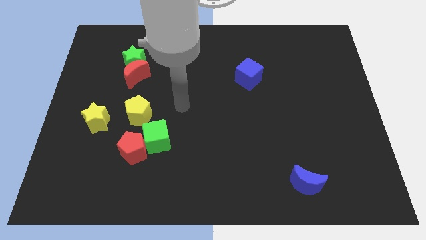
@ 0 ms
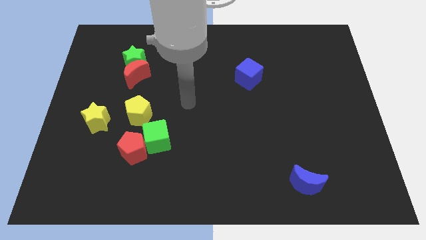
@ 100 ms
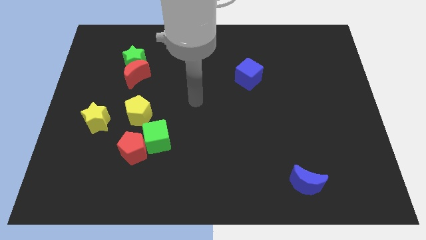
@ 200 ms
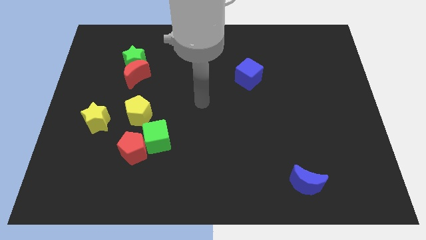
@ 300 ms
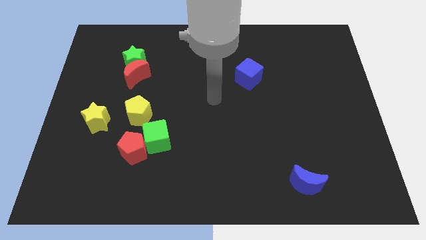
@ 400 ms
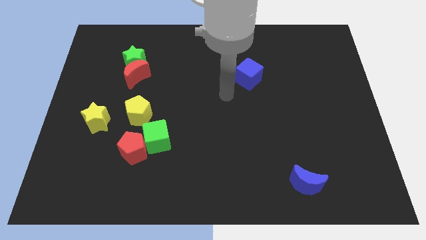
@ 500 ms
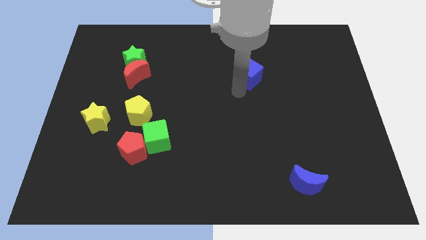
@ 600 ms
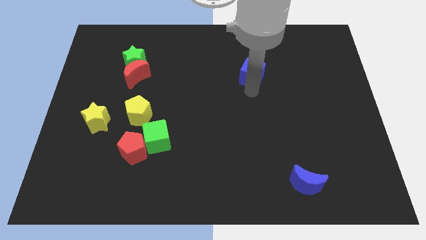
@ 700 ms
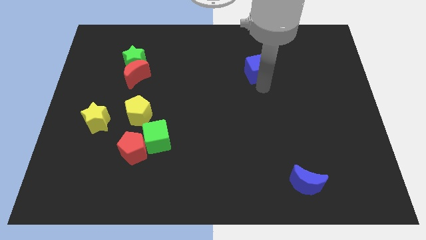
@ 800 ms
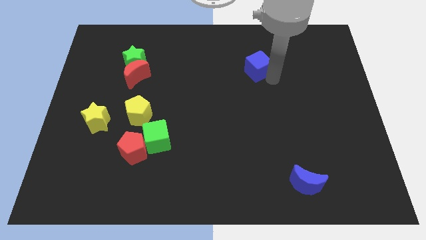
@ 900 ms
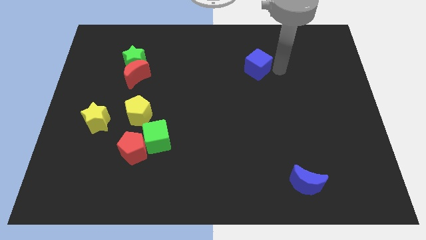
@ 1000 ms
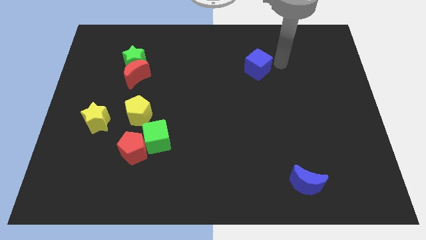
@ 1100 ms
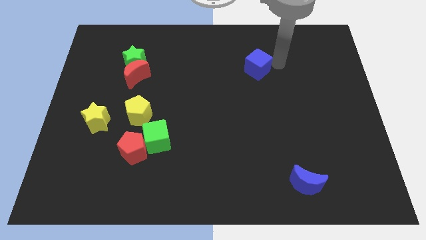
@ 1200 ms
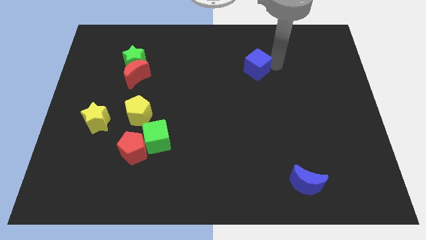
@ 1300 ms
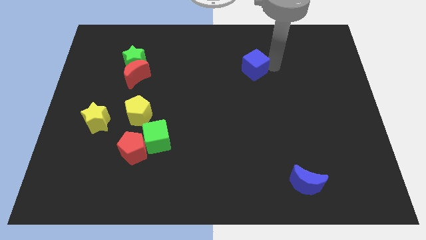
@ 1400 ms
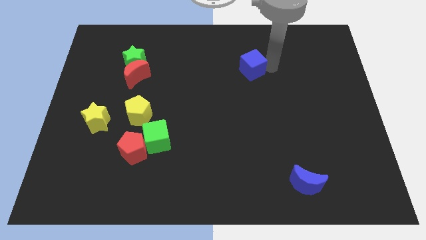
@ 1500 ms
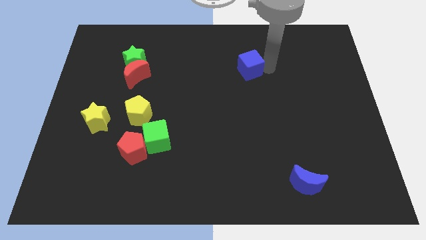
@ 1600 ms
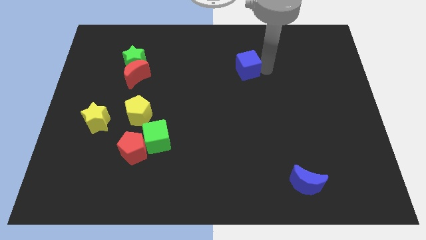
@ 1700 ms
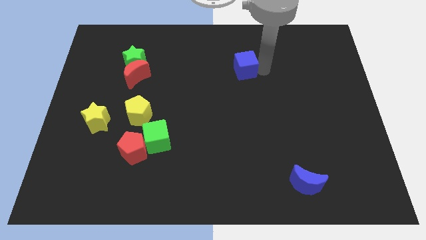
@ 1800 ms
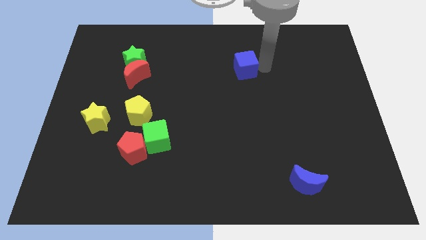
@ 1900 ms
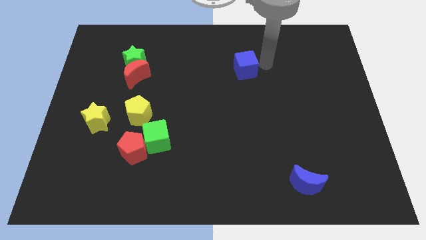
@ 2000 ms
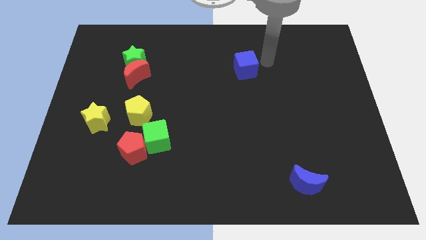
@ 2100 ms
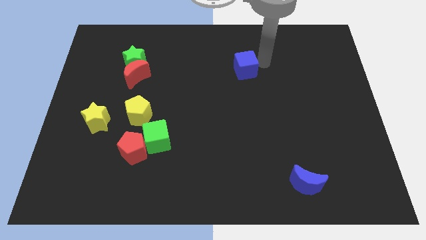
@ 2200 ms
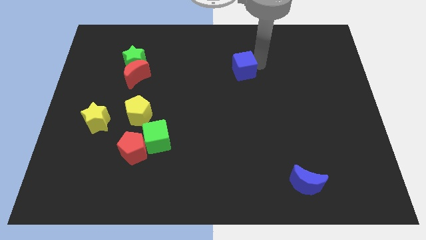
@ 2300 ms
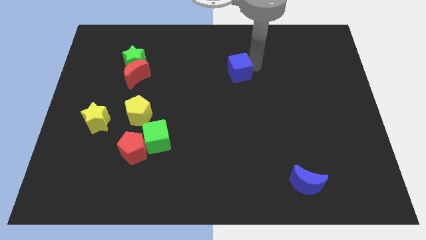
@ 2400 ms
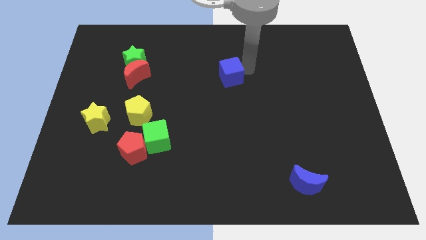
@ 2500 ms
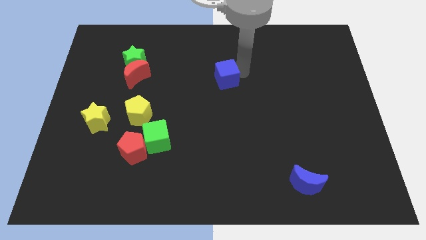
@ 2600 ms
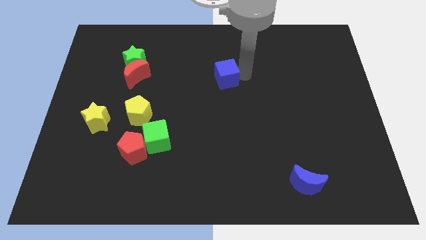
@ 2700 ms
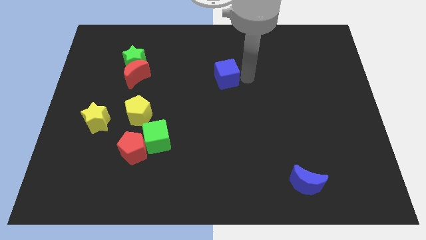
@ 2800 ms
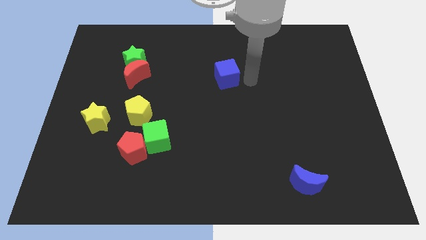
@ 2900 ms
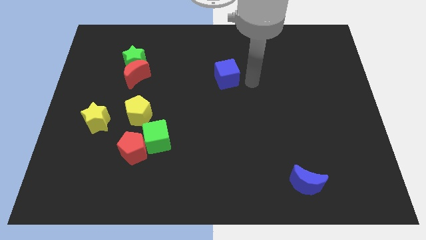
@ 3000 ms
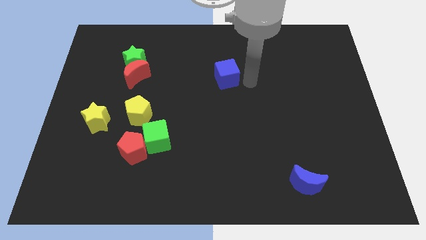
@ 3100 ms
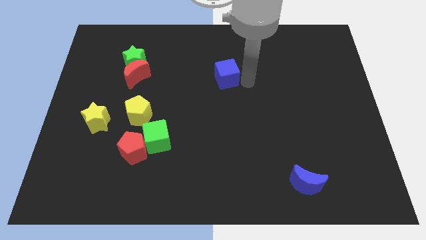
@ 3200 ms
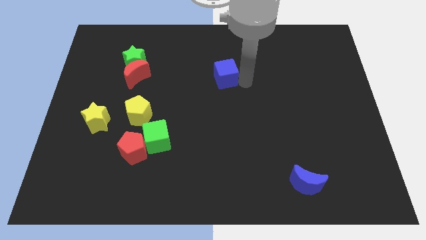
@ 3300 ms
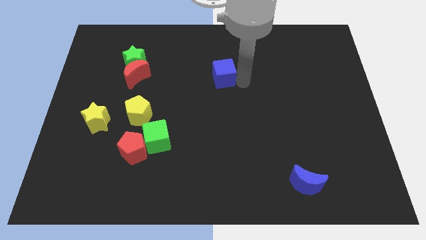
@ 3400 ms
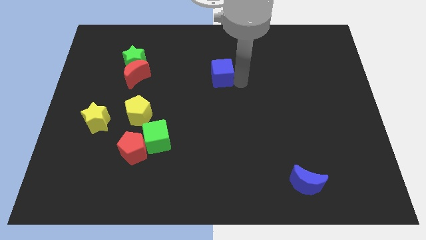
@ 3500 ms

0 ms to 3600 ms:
push the blue cube somewhat left

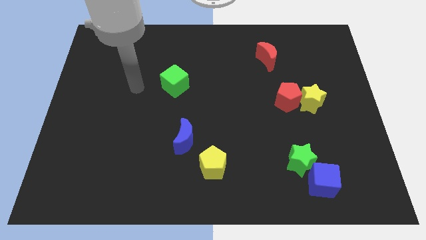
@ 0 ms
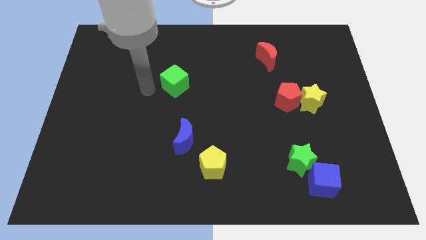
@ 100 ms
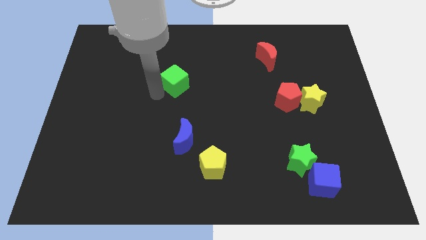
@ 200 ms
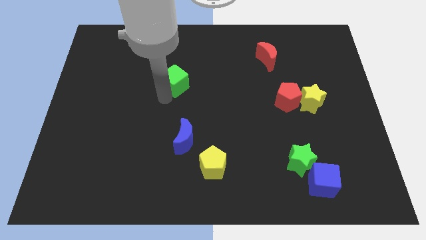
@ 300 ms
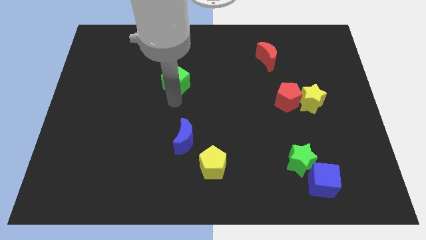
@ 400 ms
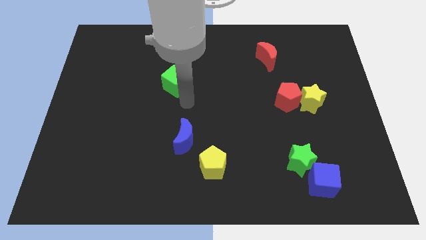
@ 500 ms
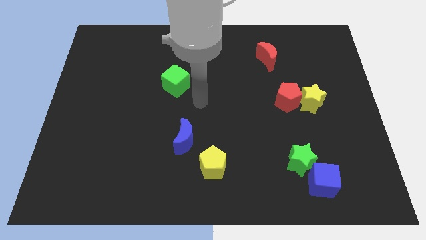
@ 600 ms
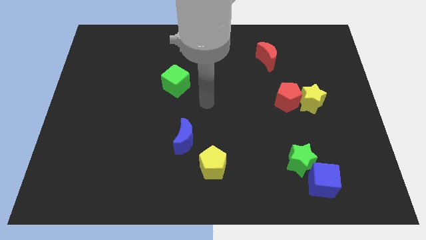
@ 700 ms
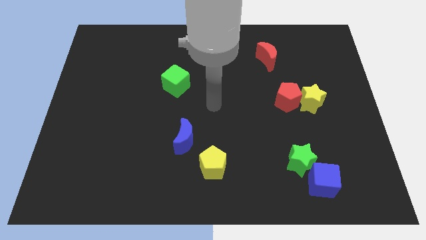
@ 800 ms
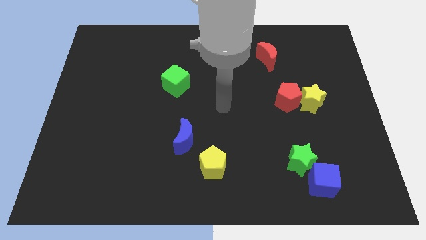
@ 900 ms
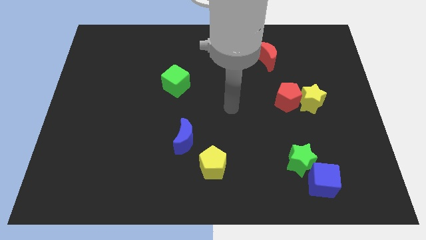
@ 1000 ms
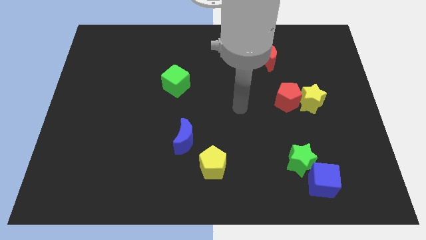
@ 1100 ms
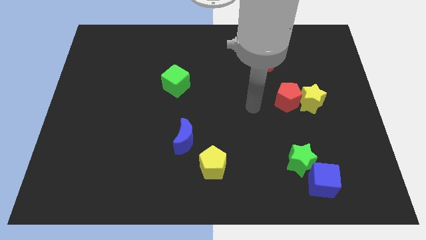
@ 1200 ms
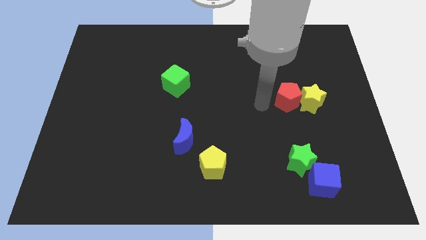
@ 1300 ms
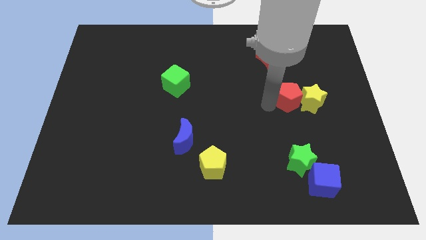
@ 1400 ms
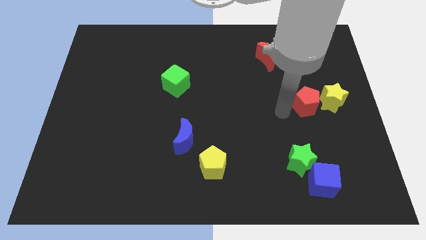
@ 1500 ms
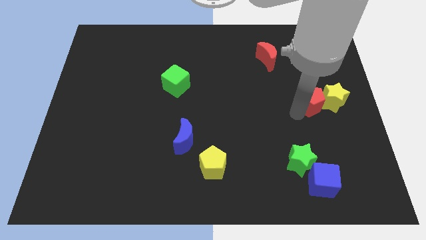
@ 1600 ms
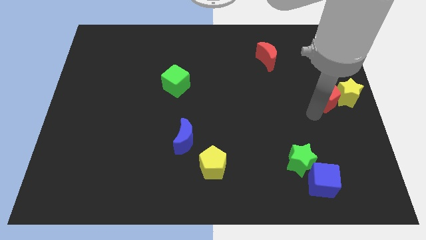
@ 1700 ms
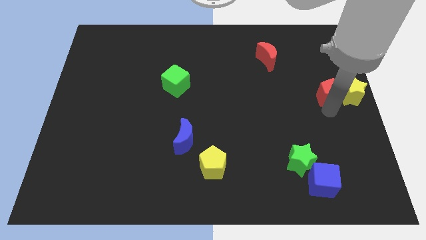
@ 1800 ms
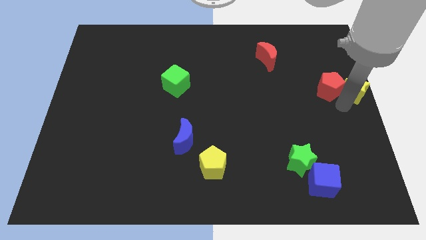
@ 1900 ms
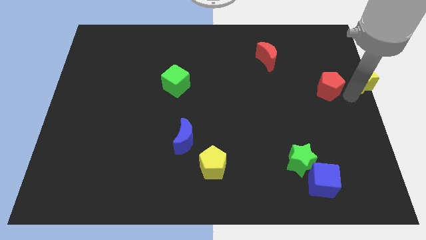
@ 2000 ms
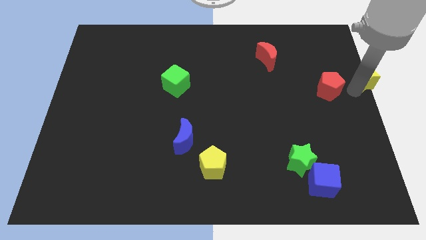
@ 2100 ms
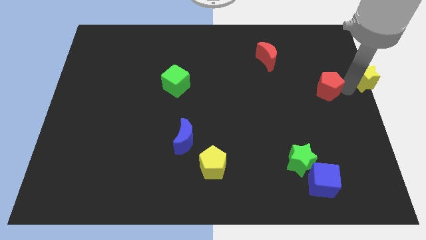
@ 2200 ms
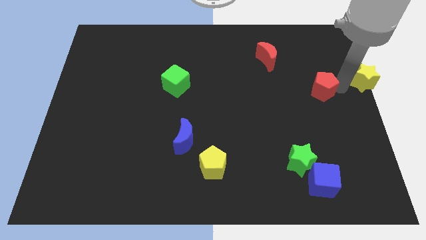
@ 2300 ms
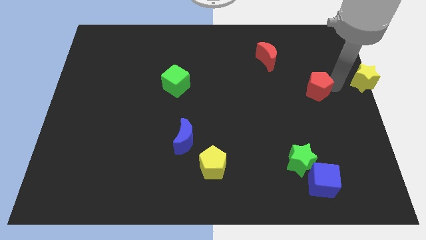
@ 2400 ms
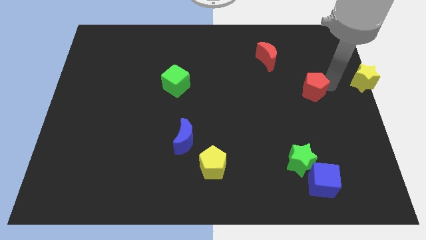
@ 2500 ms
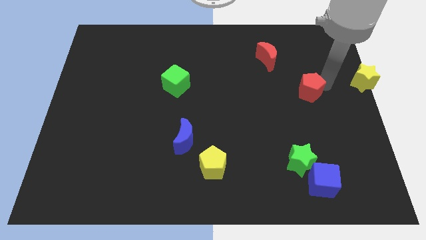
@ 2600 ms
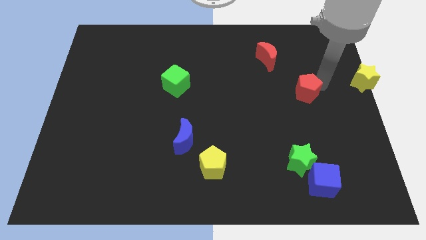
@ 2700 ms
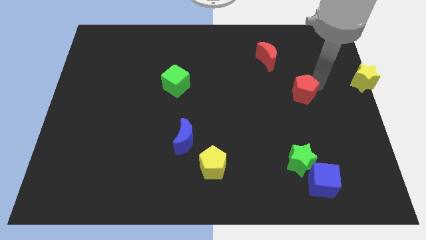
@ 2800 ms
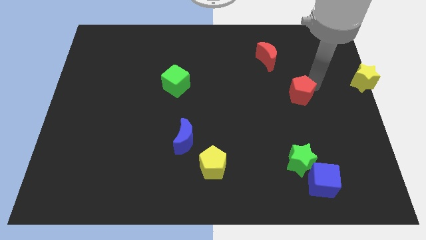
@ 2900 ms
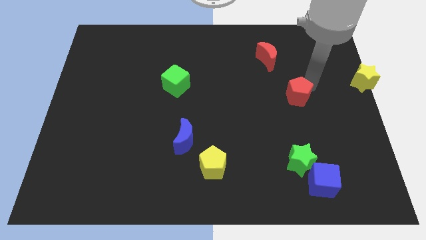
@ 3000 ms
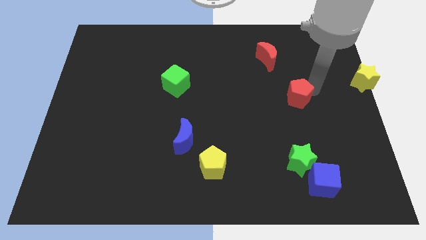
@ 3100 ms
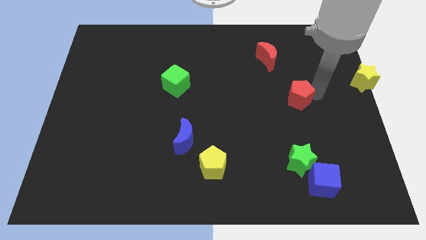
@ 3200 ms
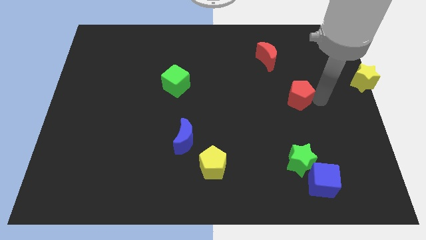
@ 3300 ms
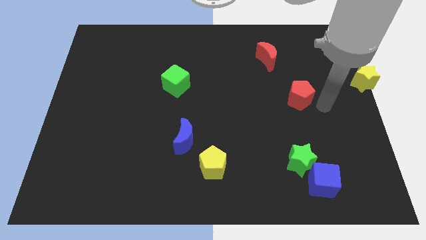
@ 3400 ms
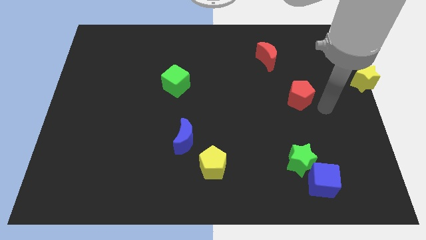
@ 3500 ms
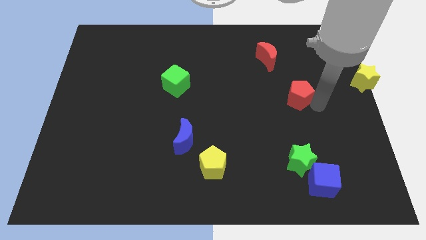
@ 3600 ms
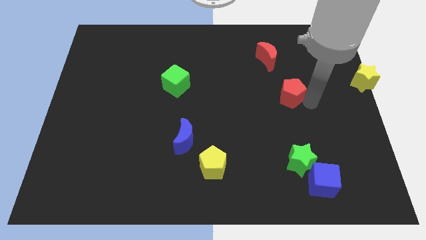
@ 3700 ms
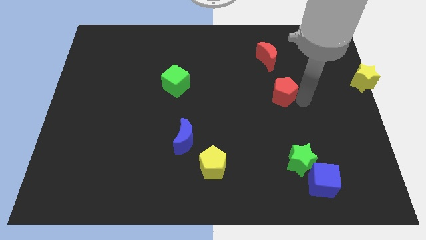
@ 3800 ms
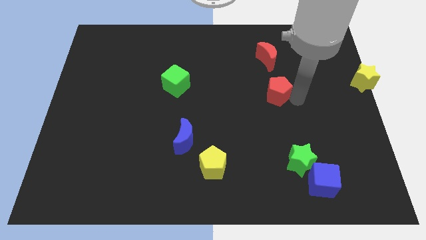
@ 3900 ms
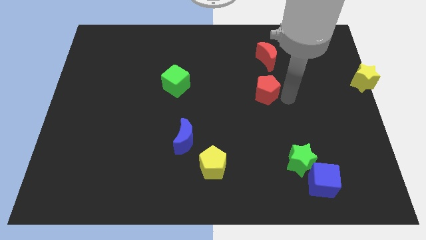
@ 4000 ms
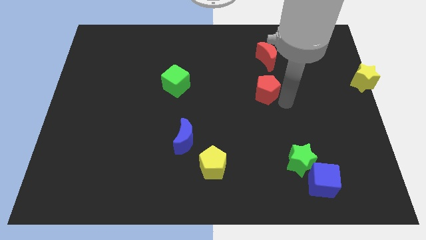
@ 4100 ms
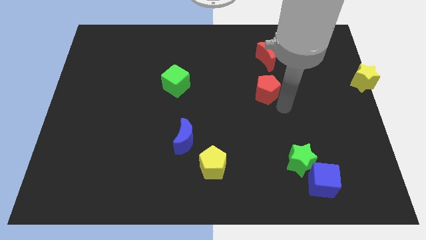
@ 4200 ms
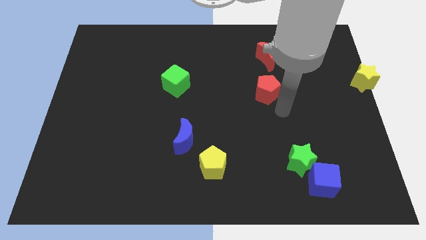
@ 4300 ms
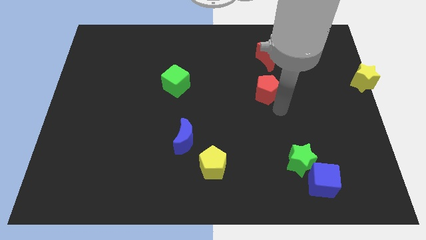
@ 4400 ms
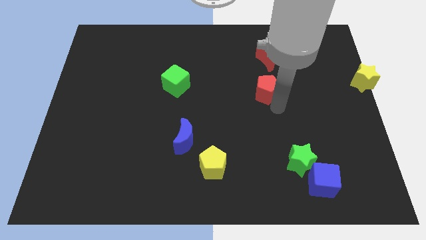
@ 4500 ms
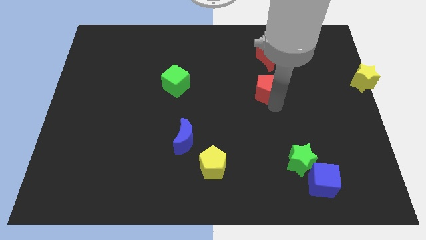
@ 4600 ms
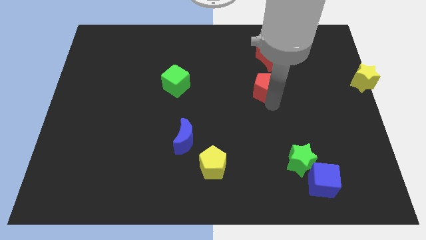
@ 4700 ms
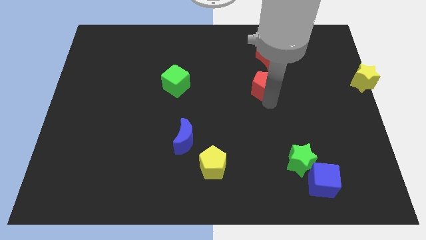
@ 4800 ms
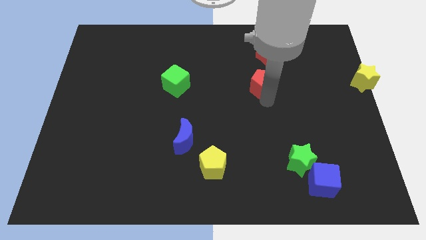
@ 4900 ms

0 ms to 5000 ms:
slide the red pentagon upwards and to the left a little
